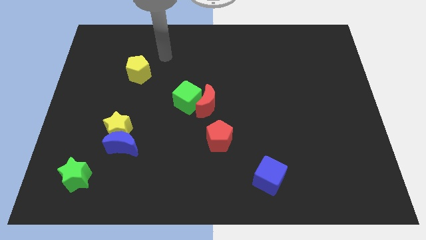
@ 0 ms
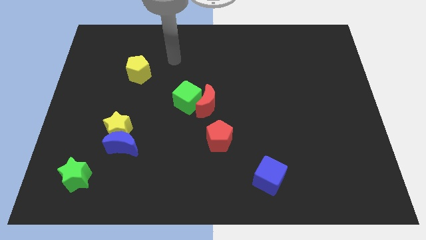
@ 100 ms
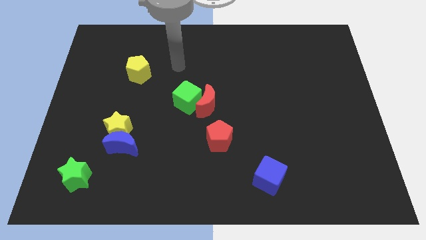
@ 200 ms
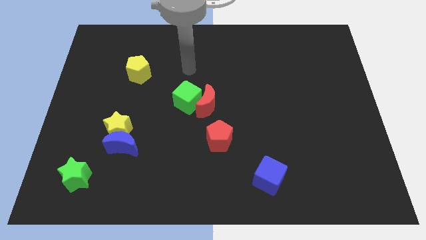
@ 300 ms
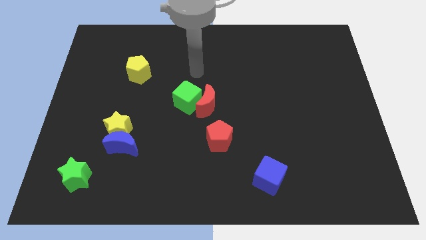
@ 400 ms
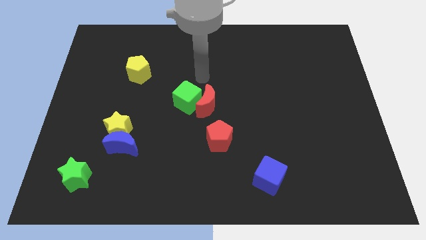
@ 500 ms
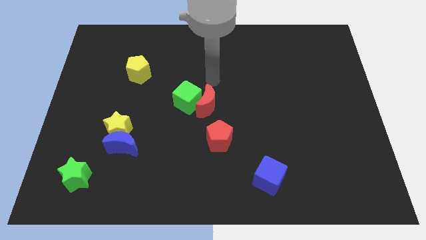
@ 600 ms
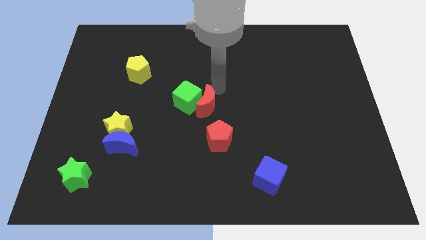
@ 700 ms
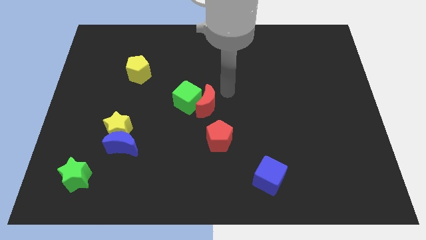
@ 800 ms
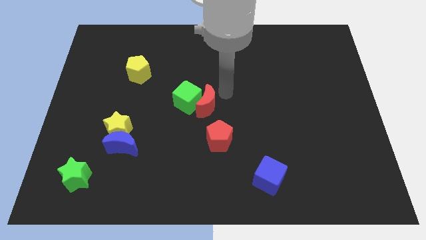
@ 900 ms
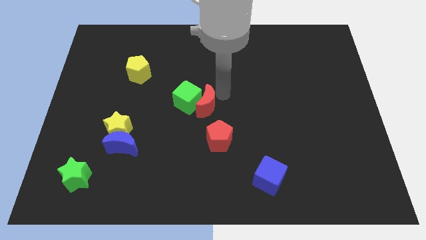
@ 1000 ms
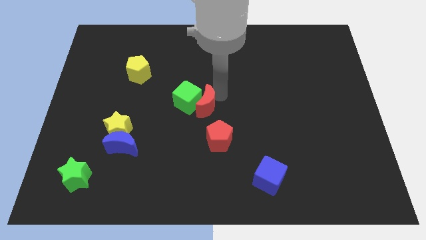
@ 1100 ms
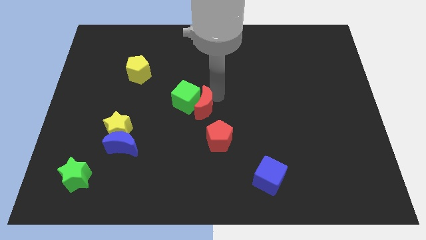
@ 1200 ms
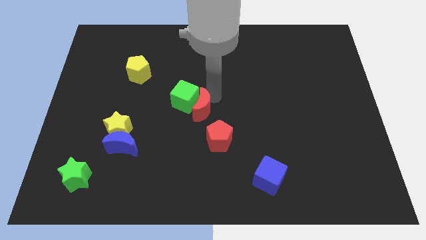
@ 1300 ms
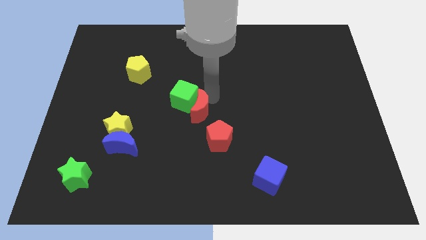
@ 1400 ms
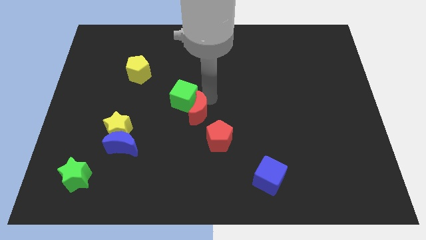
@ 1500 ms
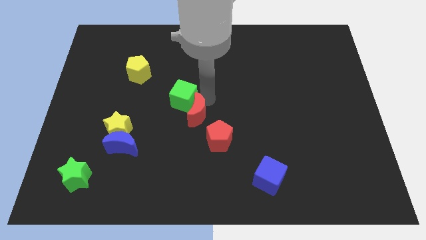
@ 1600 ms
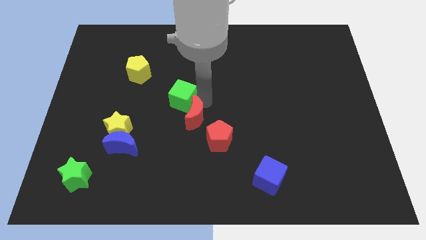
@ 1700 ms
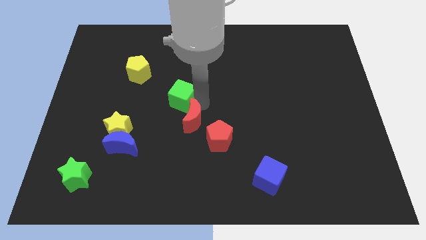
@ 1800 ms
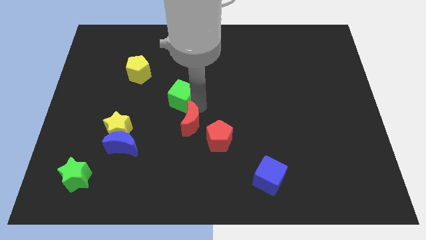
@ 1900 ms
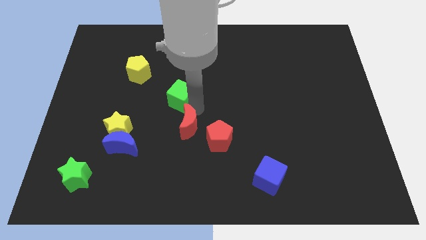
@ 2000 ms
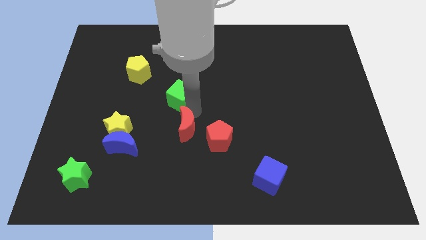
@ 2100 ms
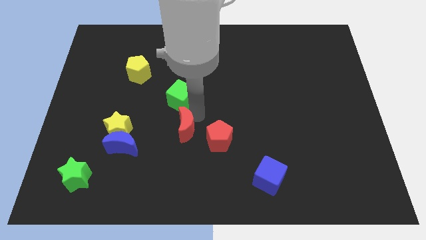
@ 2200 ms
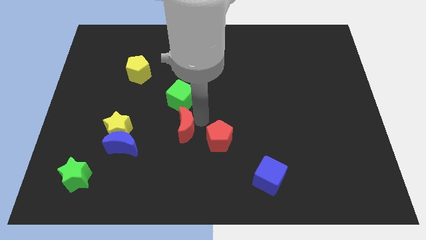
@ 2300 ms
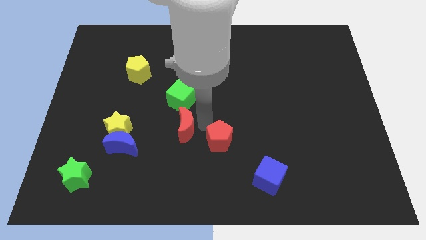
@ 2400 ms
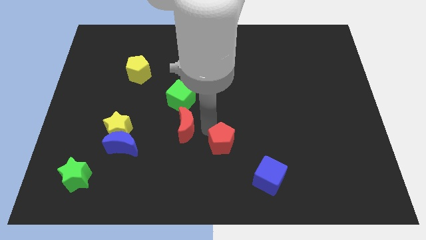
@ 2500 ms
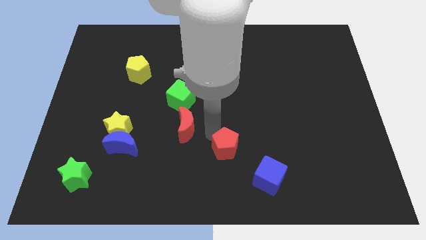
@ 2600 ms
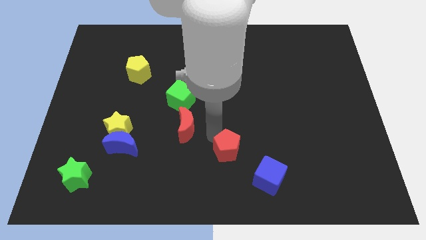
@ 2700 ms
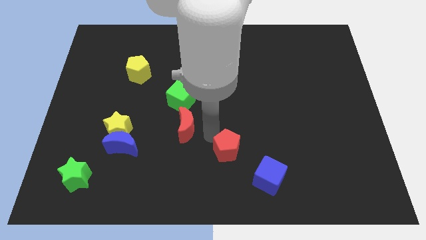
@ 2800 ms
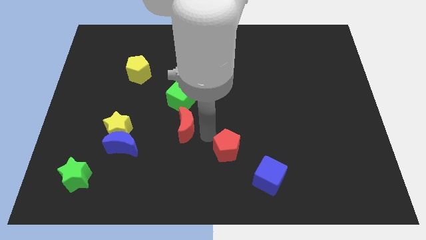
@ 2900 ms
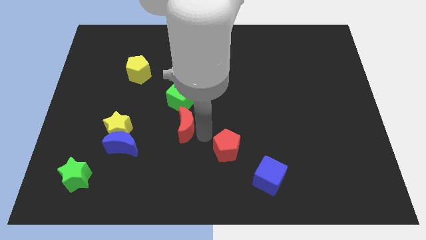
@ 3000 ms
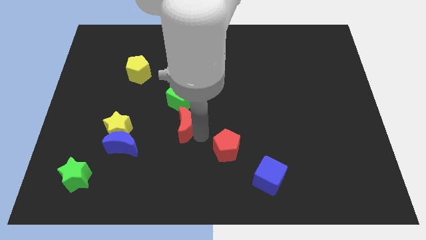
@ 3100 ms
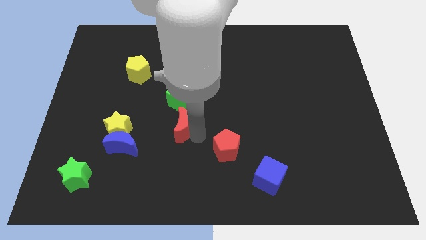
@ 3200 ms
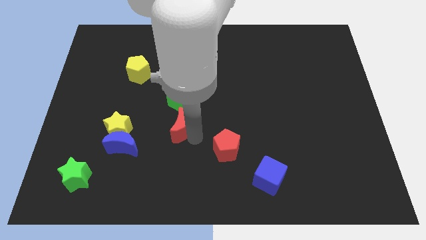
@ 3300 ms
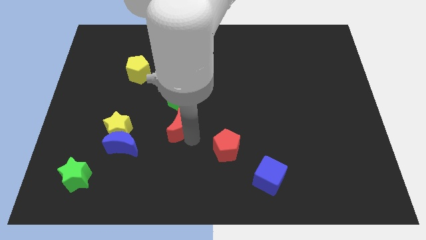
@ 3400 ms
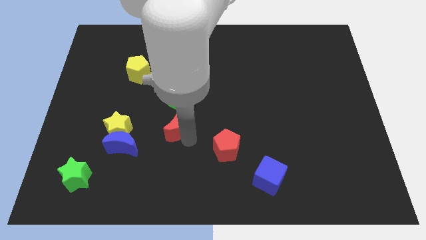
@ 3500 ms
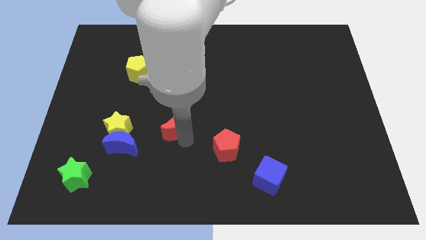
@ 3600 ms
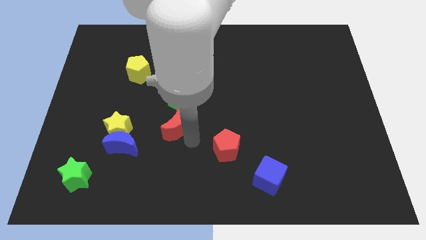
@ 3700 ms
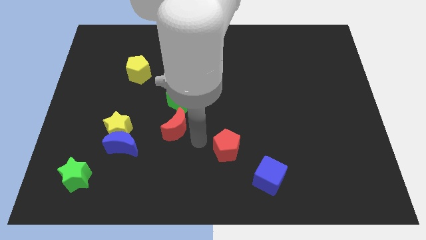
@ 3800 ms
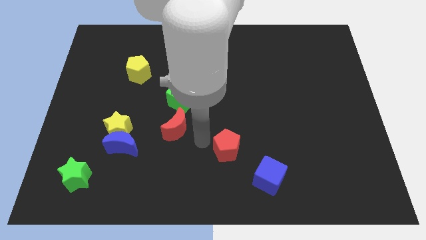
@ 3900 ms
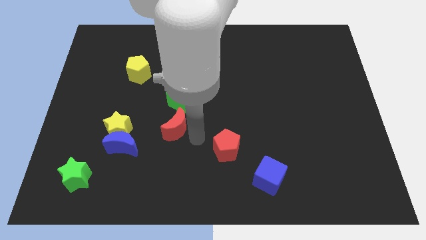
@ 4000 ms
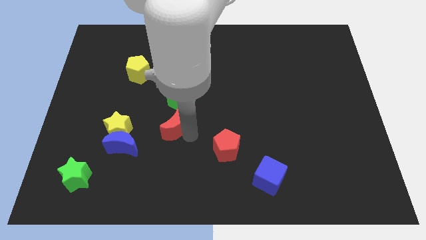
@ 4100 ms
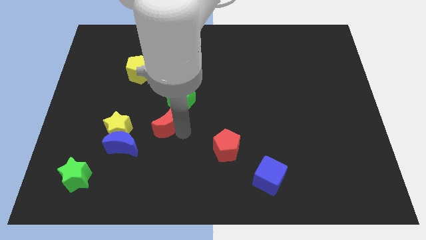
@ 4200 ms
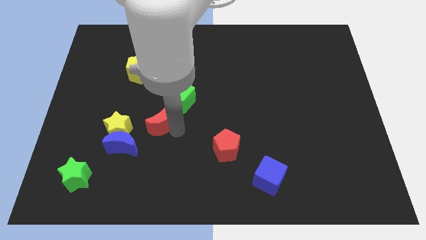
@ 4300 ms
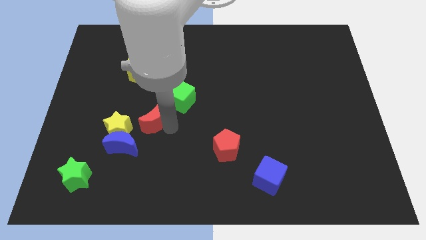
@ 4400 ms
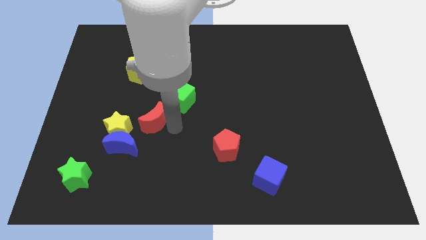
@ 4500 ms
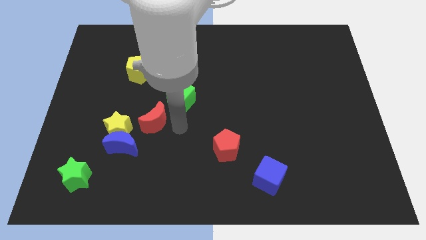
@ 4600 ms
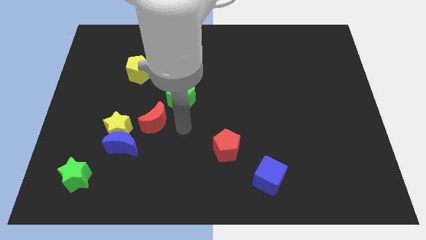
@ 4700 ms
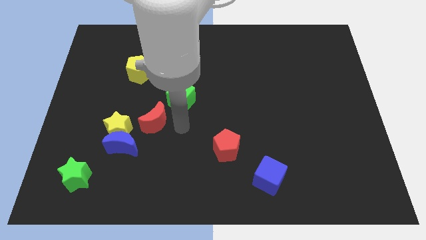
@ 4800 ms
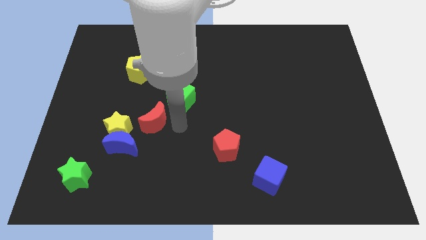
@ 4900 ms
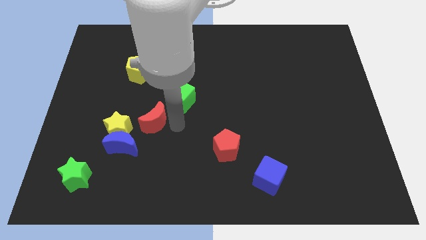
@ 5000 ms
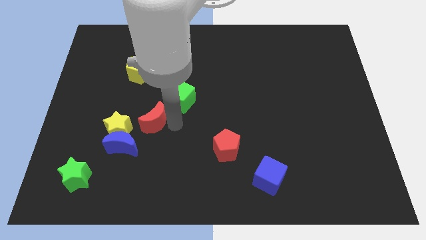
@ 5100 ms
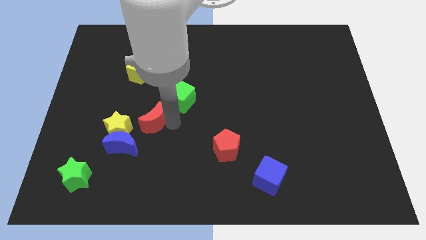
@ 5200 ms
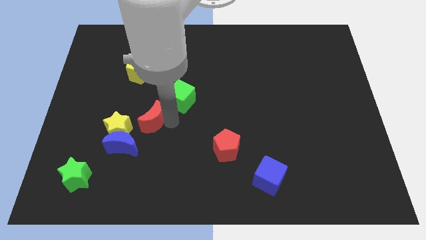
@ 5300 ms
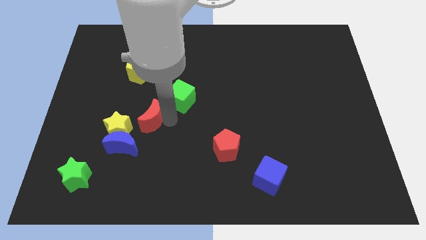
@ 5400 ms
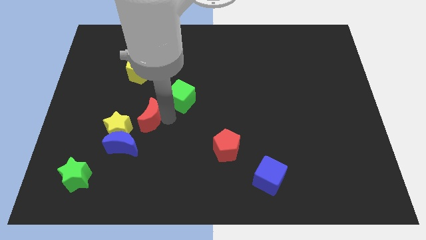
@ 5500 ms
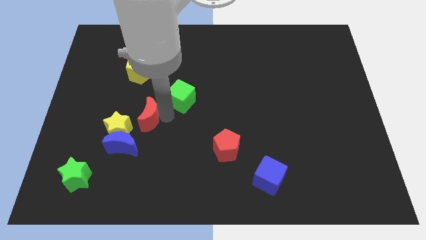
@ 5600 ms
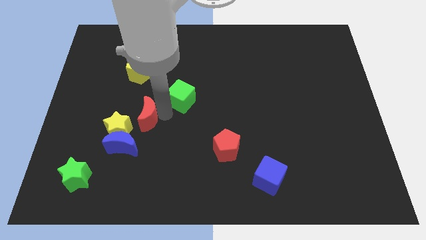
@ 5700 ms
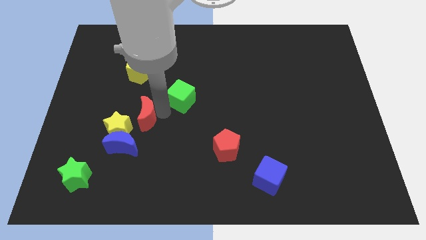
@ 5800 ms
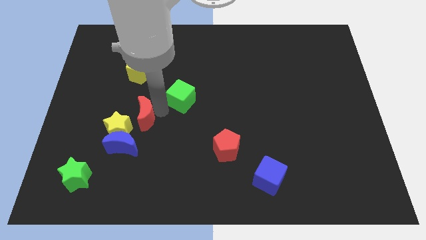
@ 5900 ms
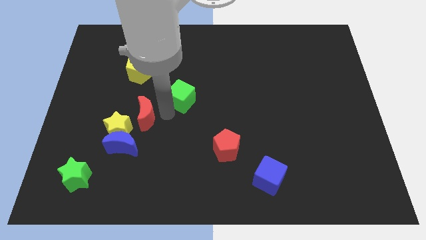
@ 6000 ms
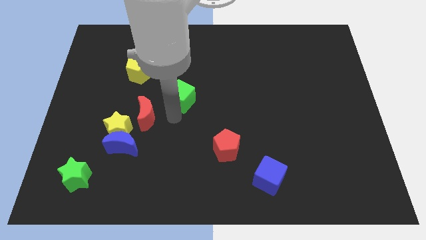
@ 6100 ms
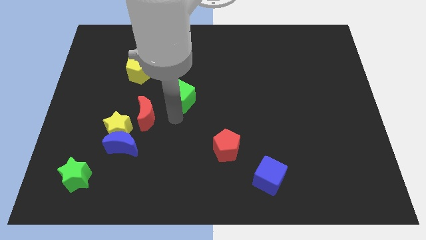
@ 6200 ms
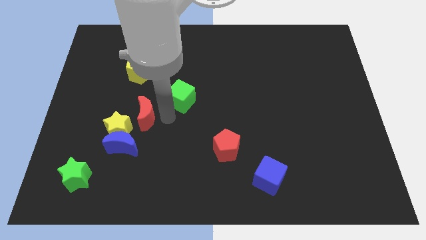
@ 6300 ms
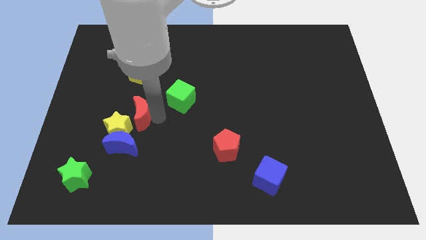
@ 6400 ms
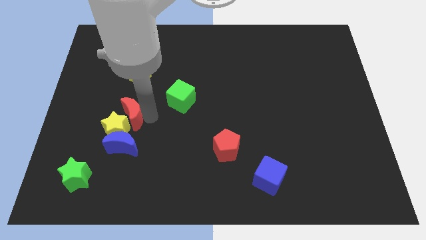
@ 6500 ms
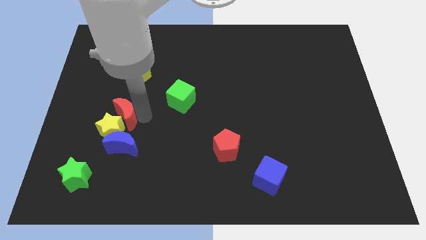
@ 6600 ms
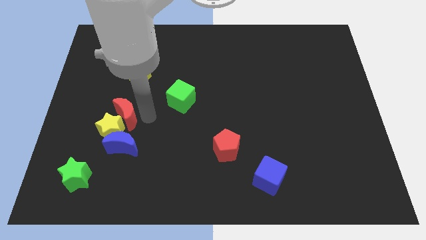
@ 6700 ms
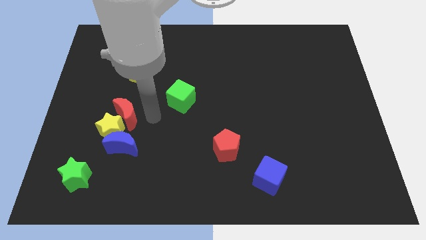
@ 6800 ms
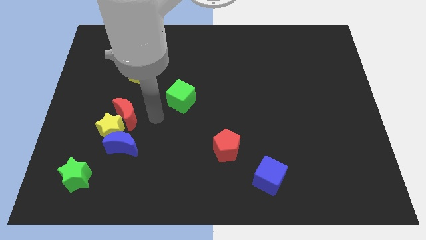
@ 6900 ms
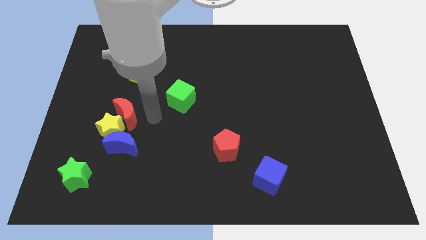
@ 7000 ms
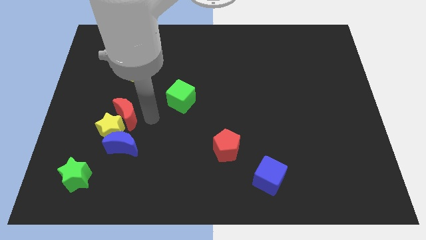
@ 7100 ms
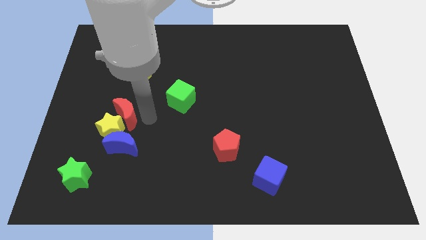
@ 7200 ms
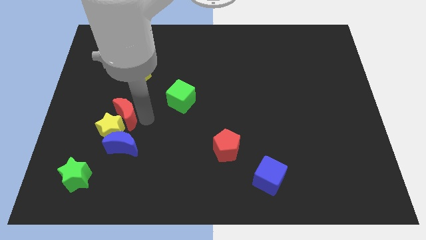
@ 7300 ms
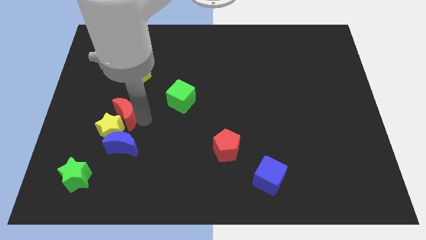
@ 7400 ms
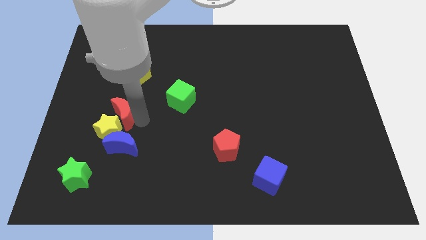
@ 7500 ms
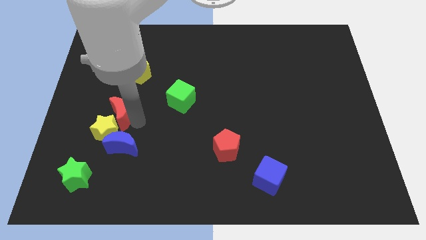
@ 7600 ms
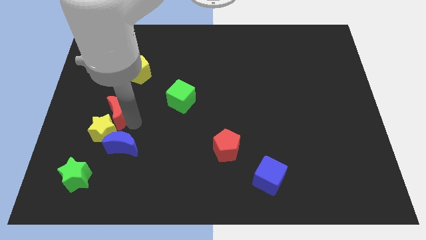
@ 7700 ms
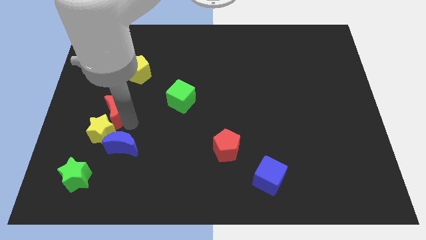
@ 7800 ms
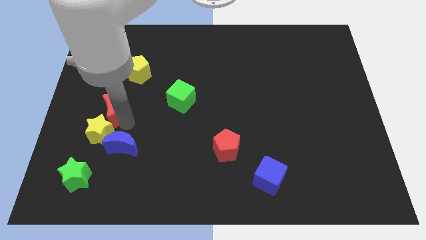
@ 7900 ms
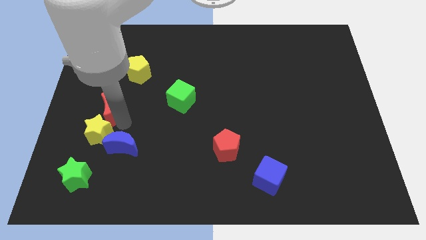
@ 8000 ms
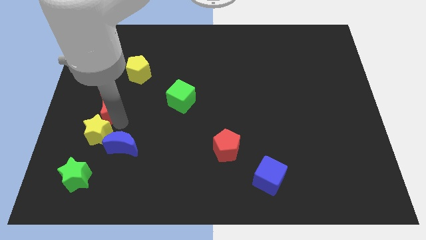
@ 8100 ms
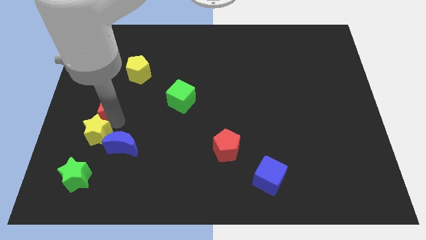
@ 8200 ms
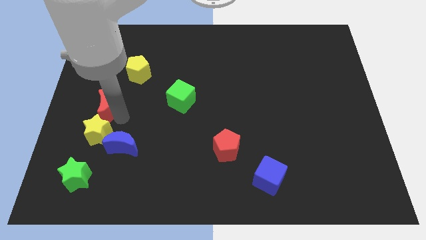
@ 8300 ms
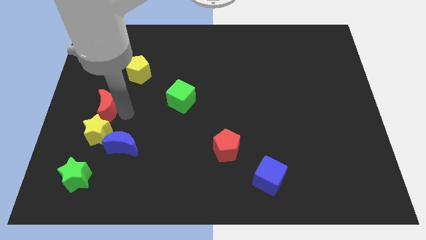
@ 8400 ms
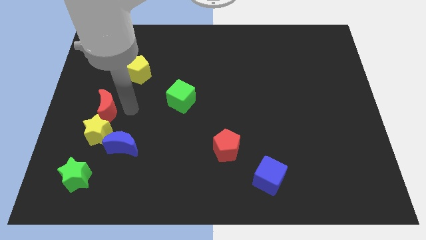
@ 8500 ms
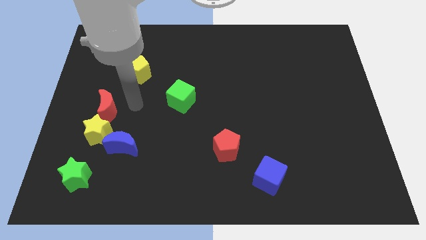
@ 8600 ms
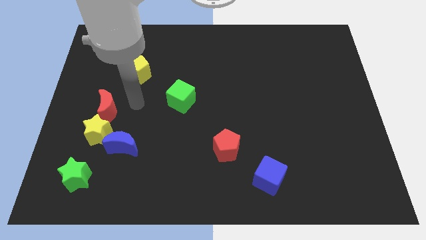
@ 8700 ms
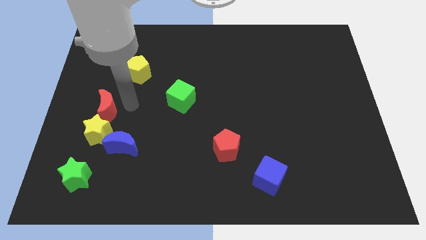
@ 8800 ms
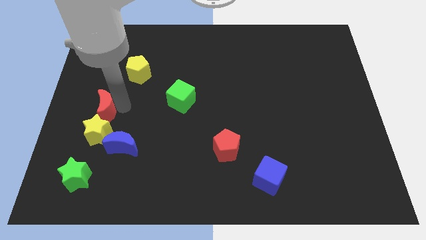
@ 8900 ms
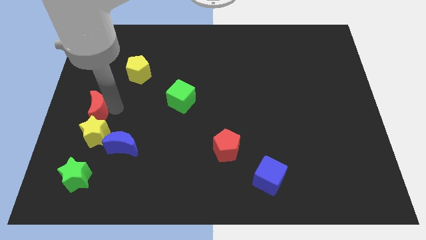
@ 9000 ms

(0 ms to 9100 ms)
push the red moon diagonally up and to the left of the yellow star
